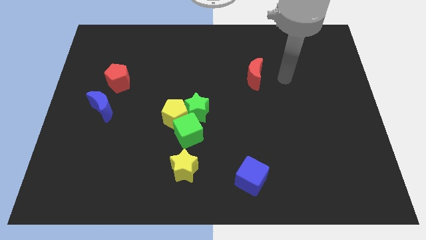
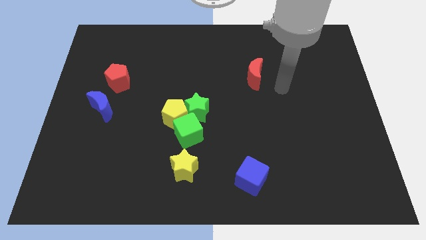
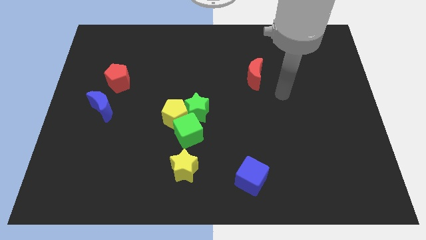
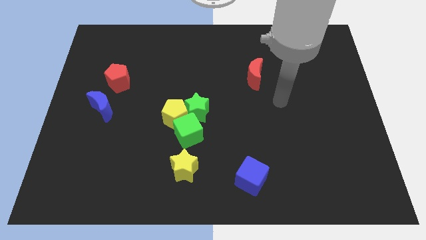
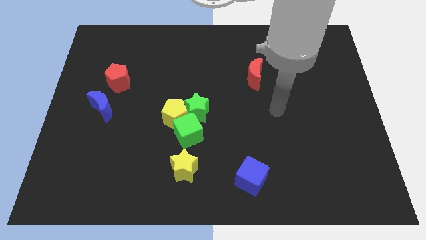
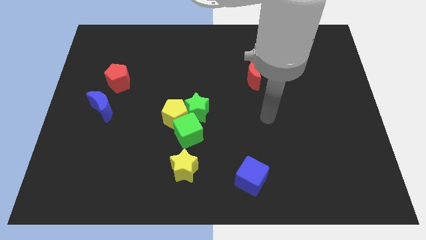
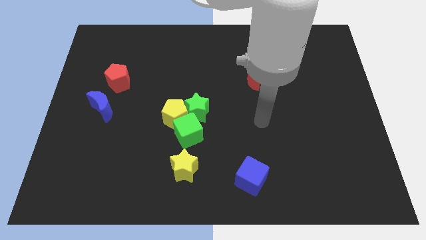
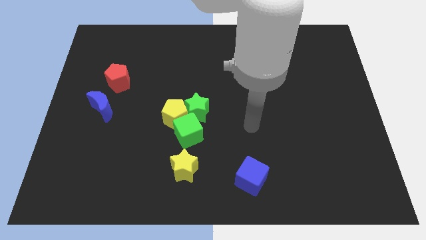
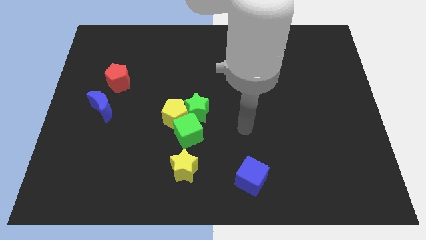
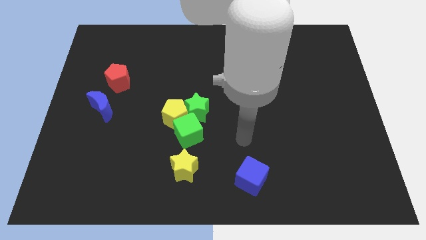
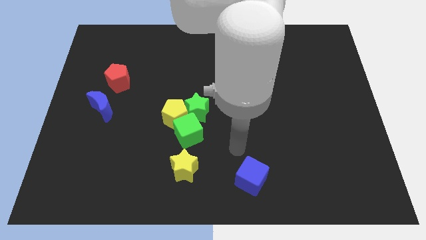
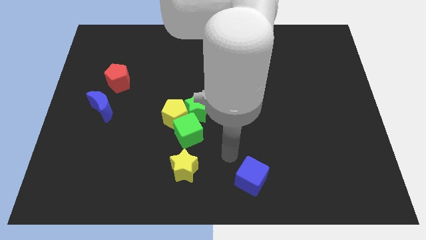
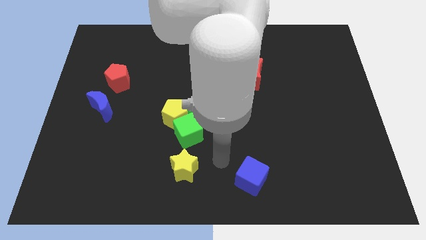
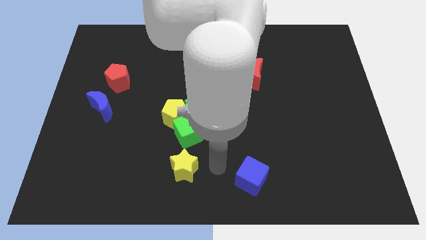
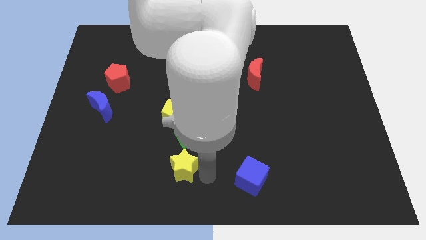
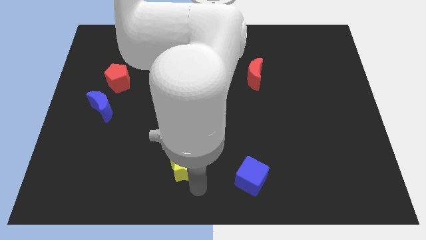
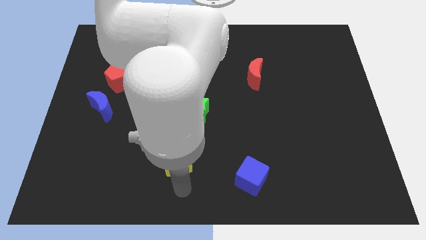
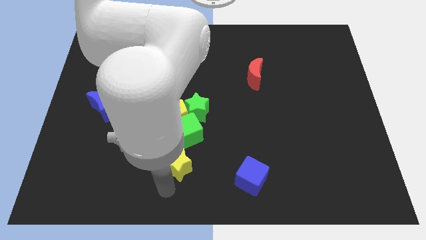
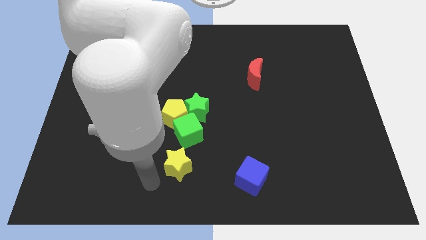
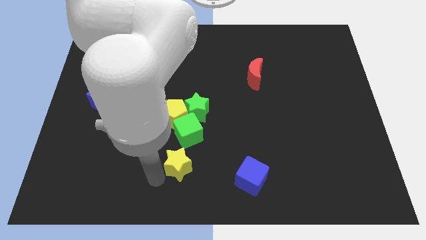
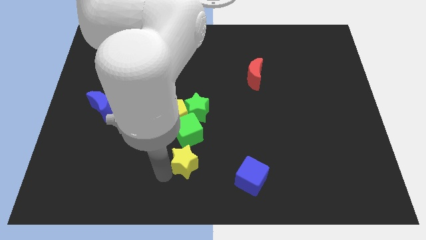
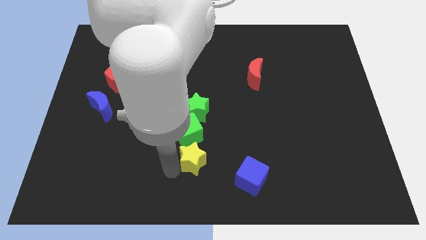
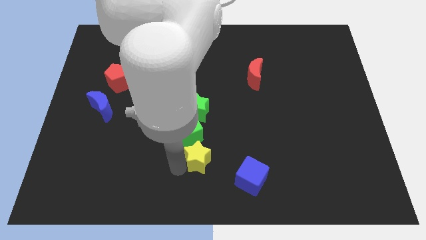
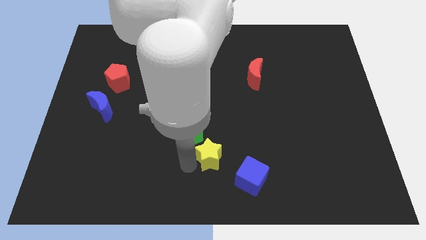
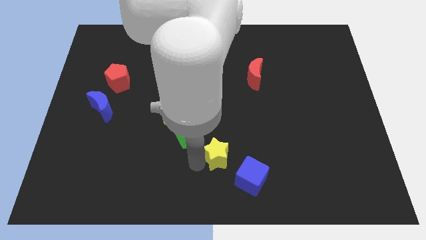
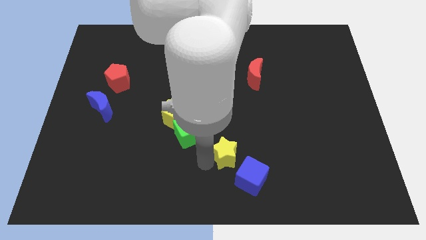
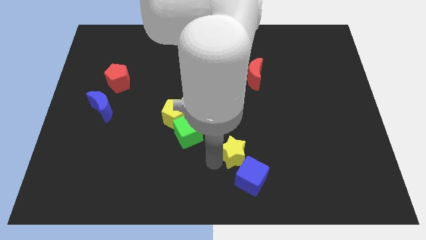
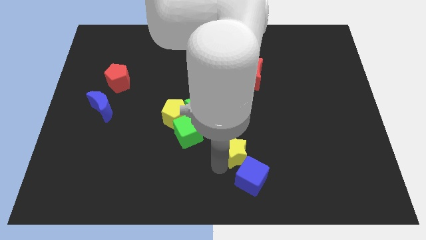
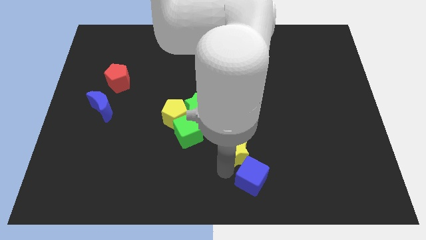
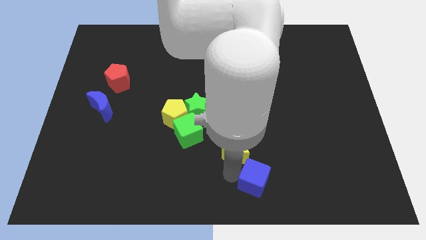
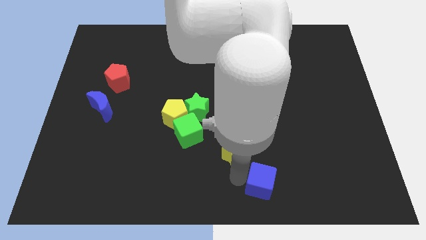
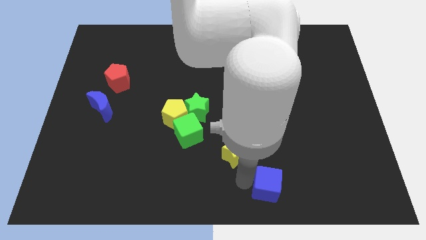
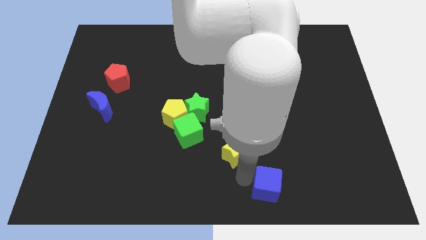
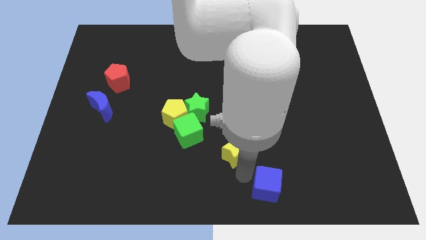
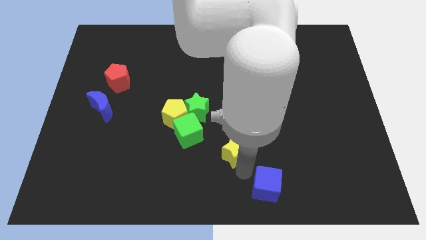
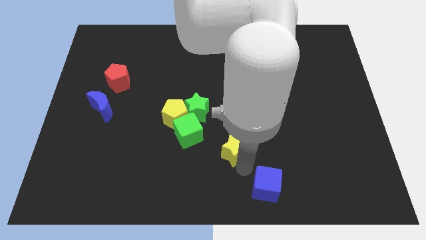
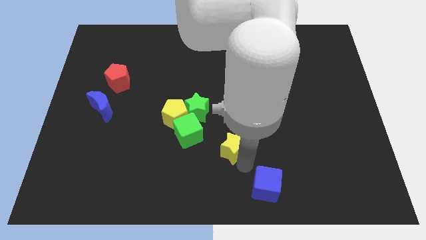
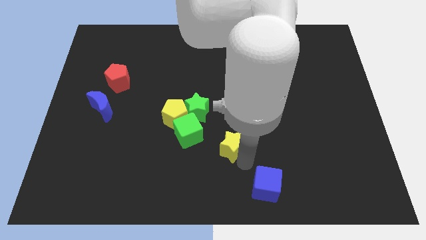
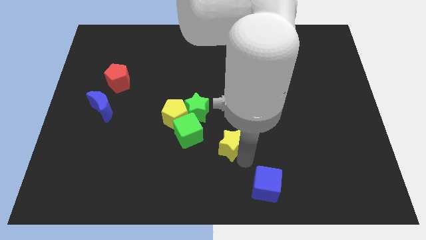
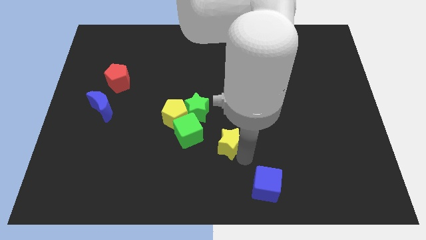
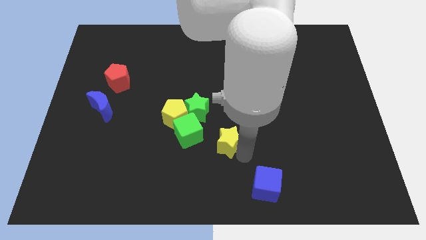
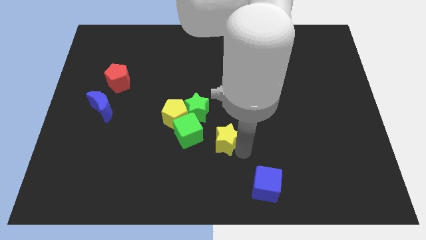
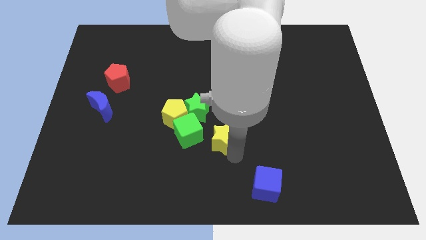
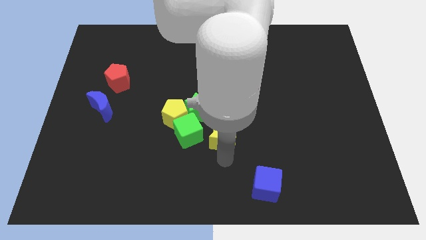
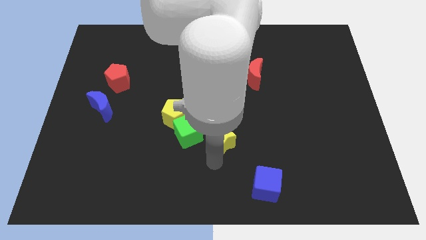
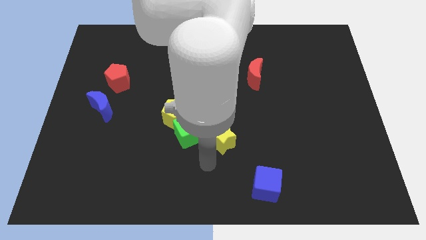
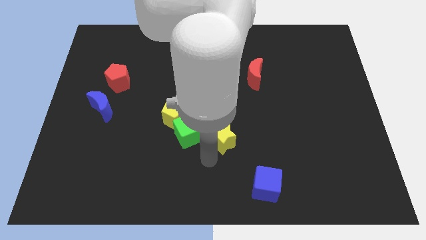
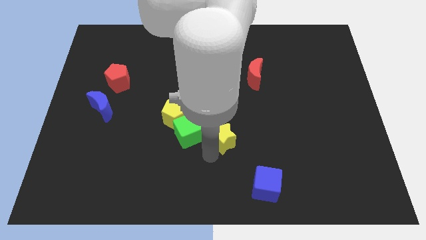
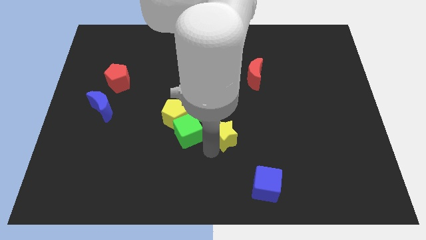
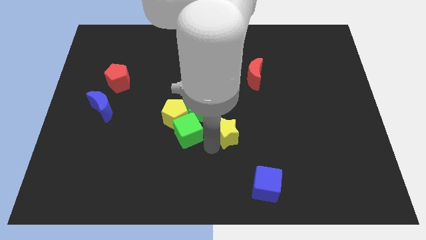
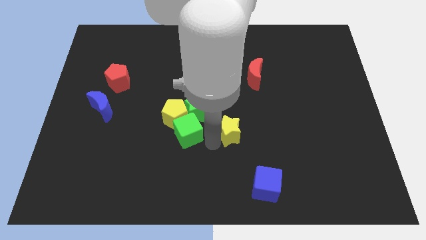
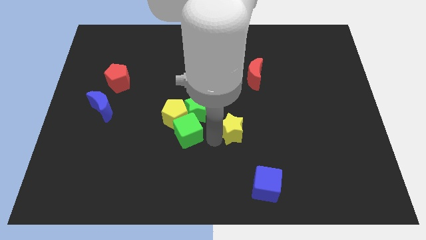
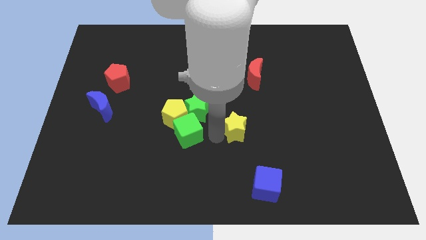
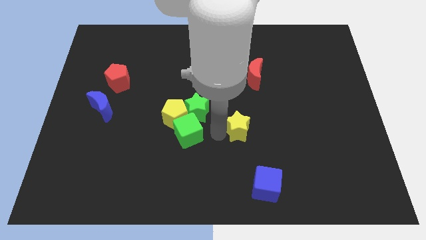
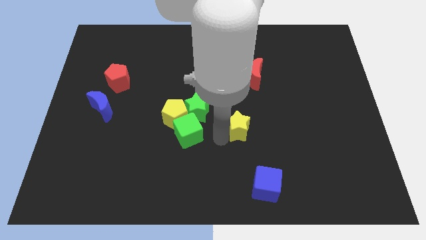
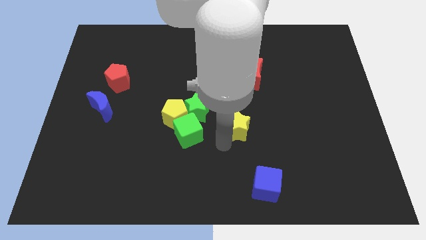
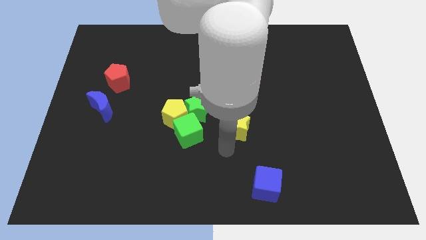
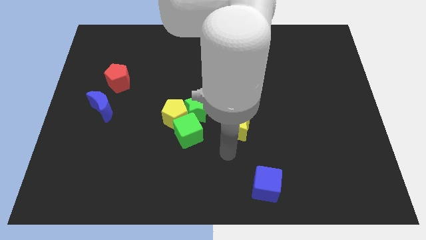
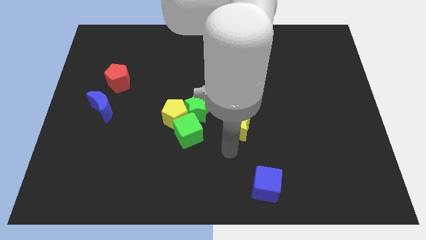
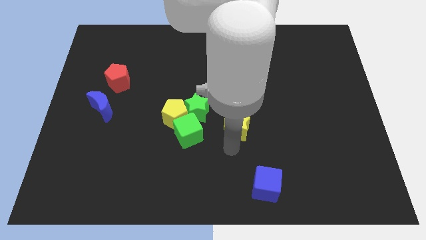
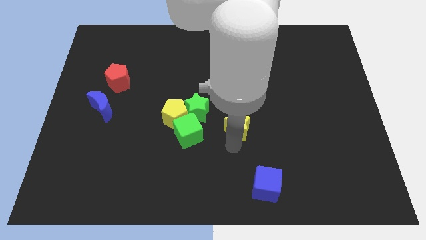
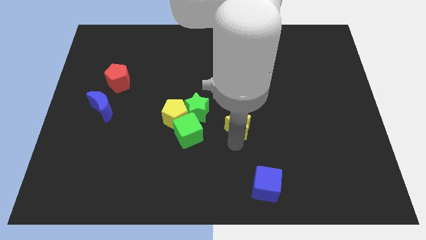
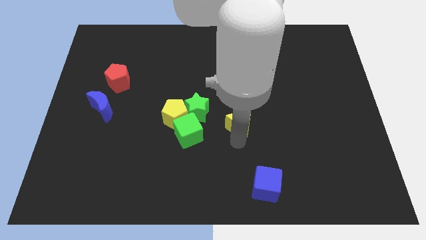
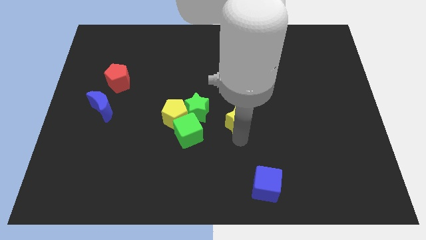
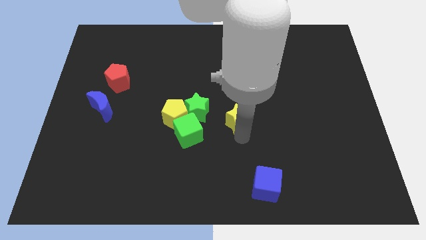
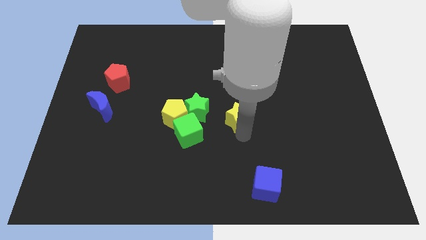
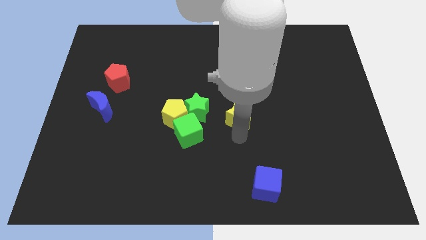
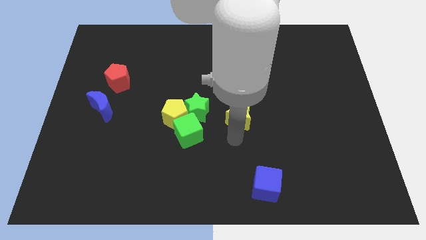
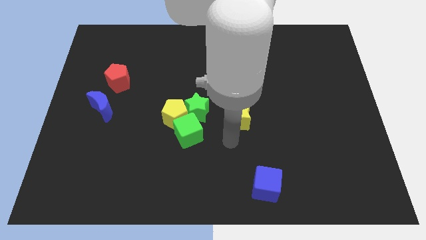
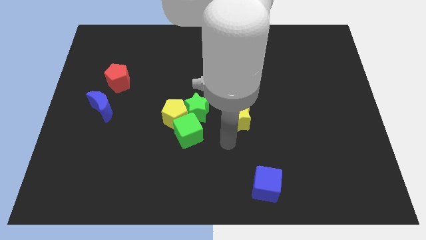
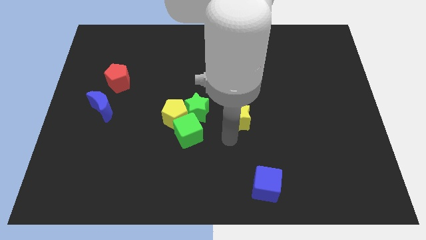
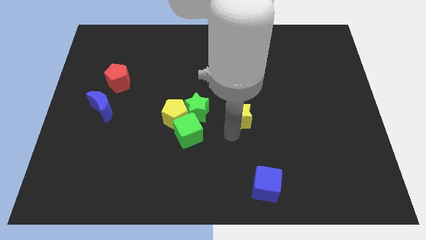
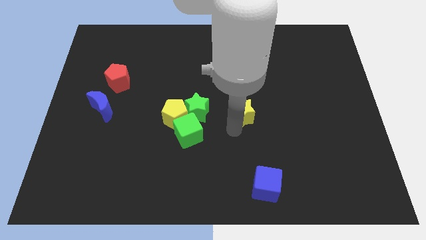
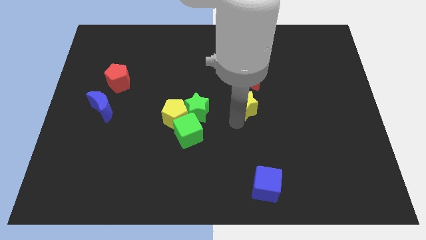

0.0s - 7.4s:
slide the yellow star up and to the right

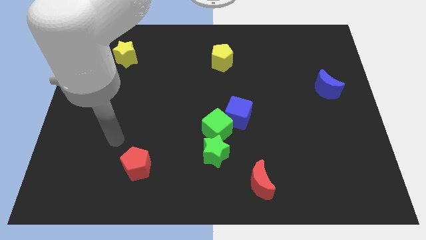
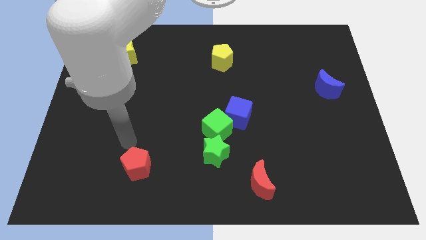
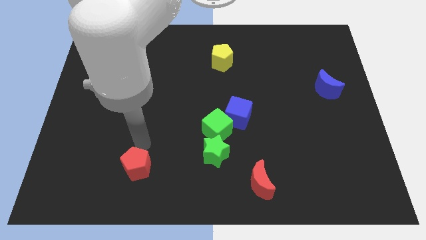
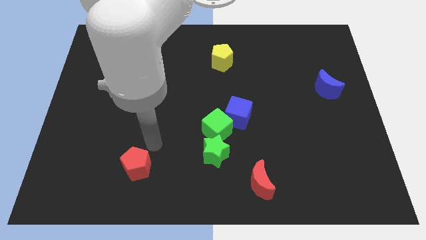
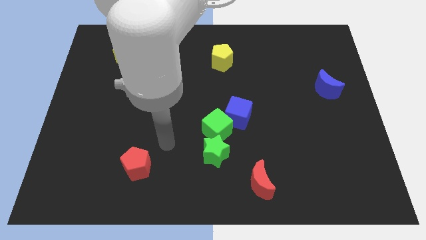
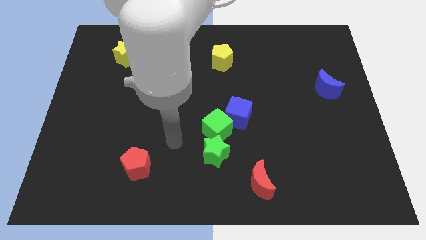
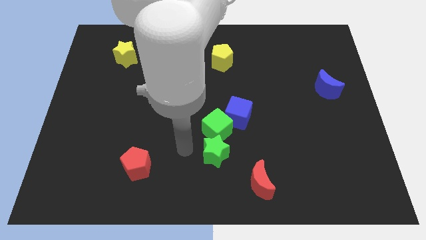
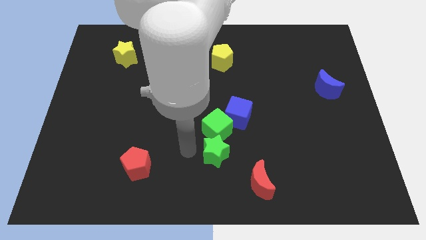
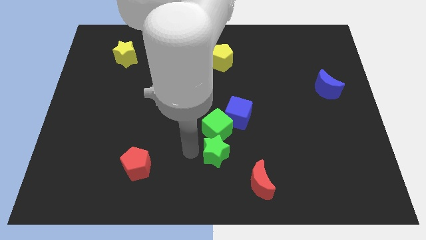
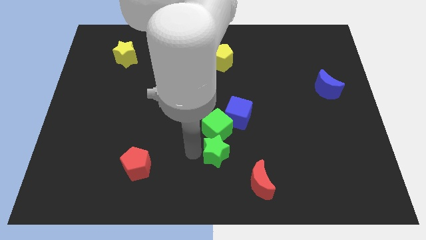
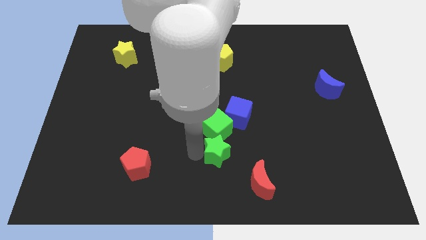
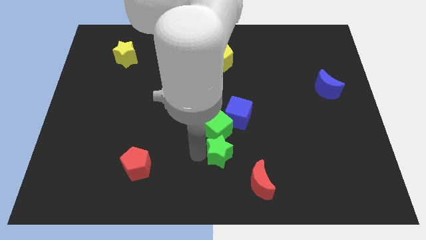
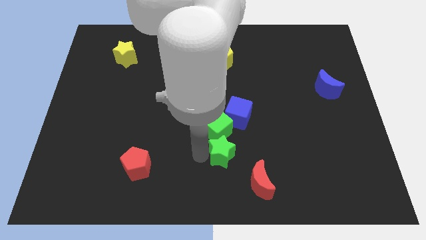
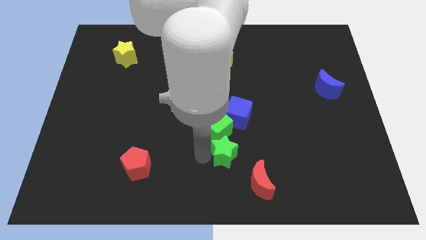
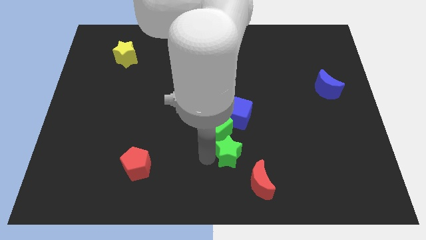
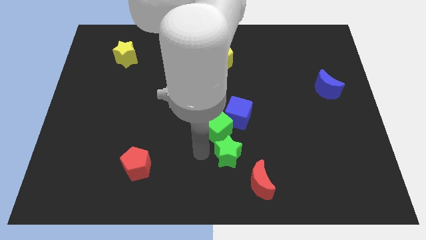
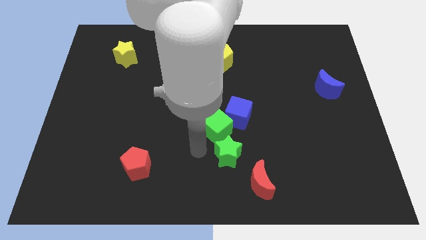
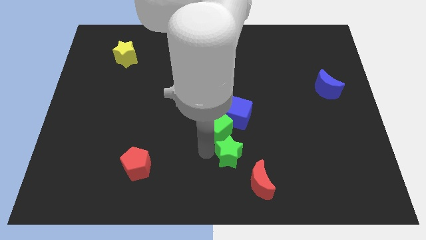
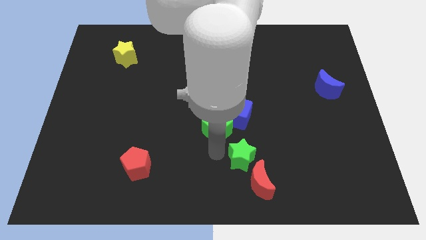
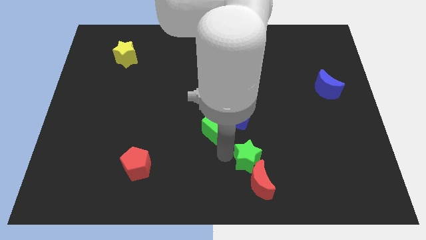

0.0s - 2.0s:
slightly slide the green star to the right
